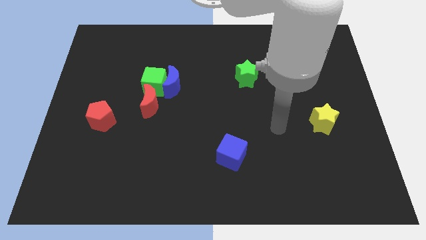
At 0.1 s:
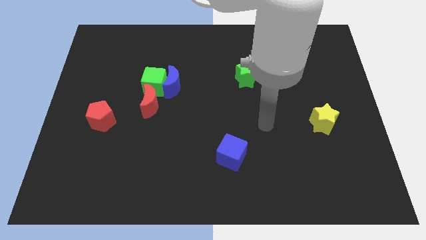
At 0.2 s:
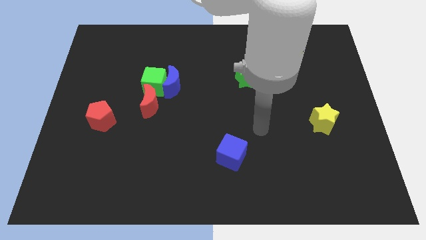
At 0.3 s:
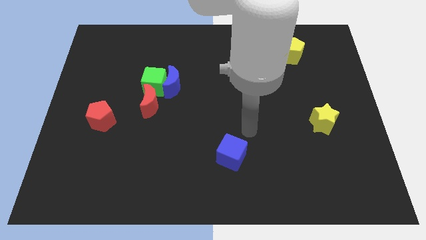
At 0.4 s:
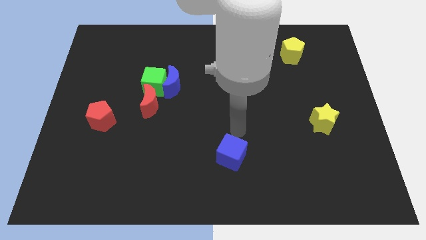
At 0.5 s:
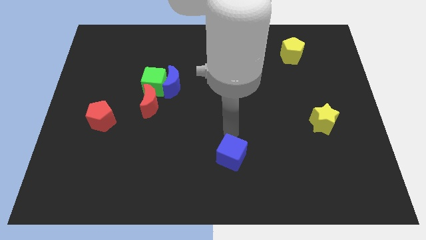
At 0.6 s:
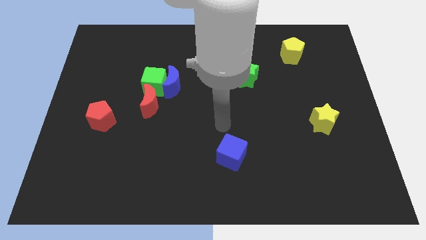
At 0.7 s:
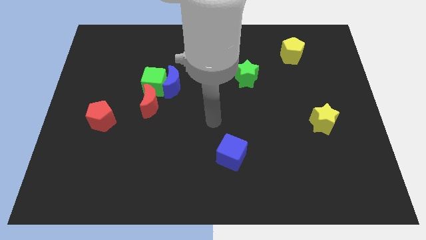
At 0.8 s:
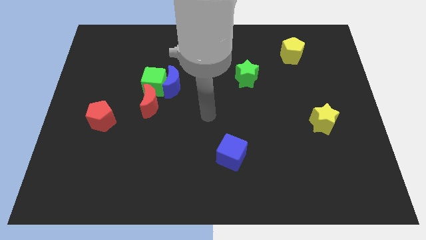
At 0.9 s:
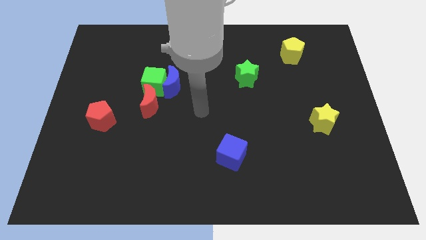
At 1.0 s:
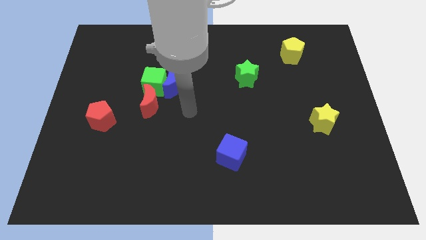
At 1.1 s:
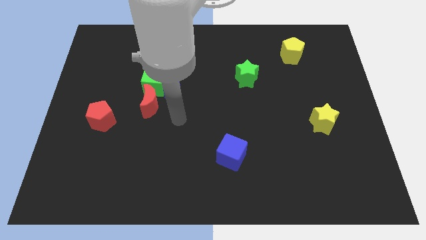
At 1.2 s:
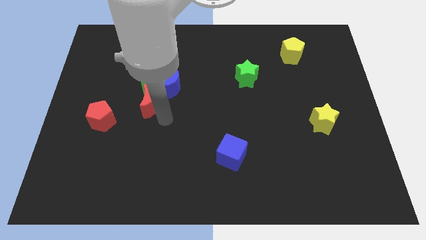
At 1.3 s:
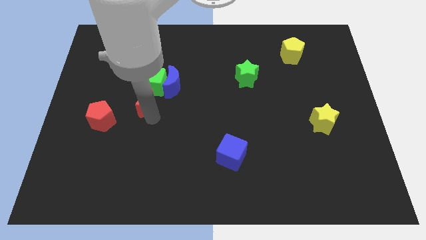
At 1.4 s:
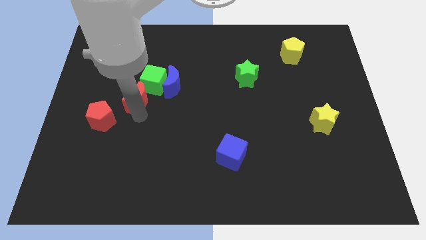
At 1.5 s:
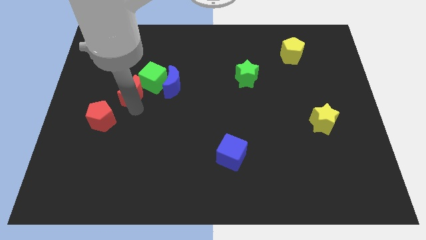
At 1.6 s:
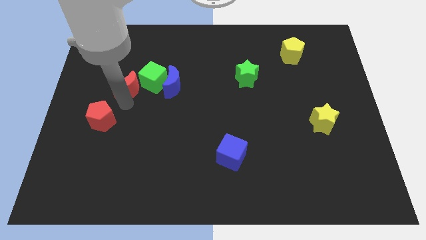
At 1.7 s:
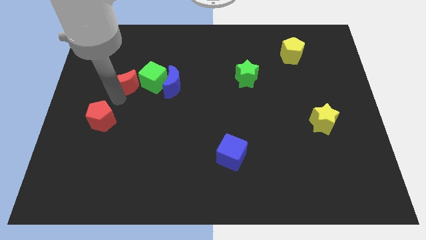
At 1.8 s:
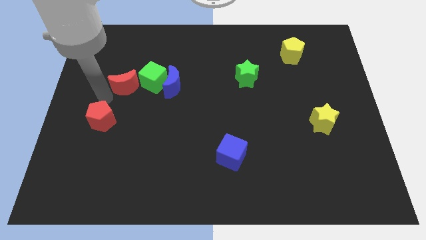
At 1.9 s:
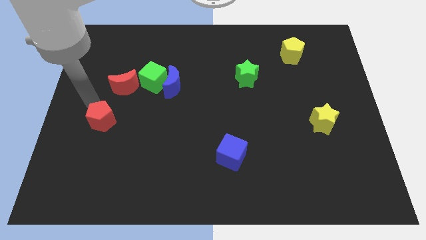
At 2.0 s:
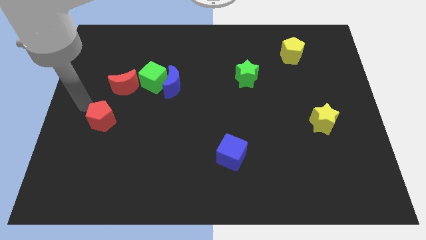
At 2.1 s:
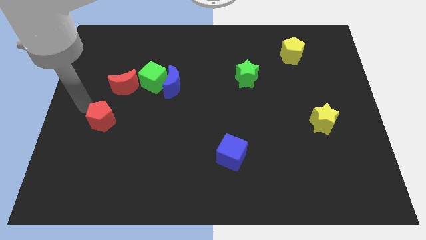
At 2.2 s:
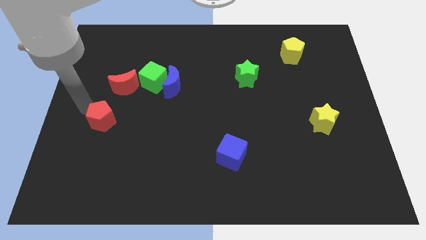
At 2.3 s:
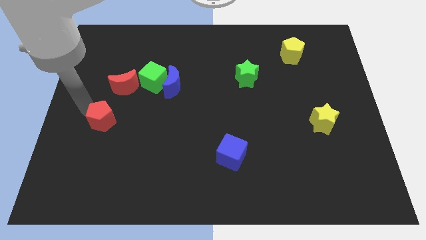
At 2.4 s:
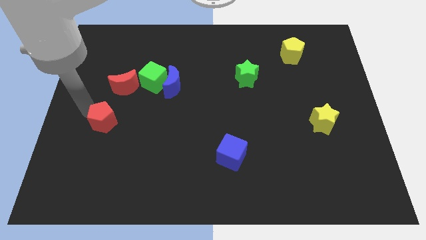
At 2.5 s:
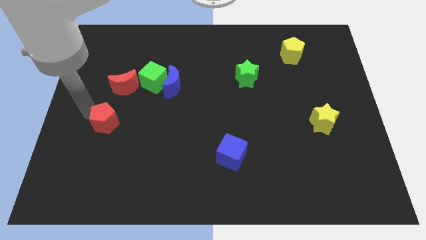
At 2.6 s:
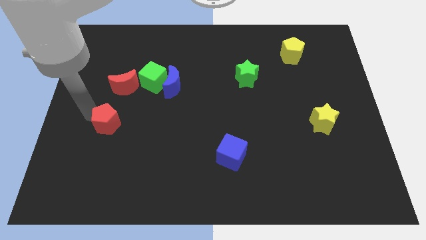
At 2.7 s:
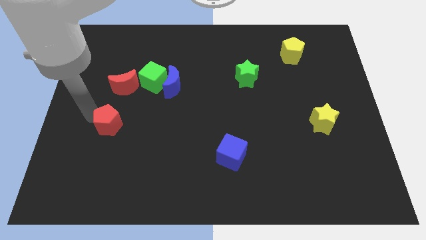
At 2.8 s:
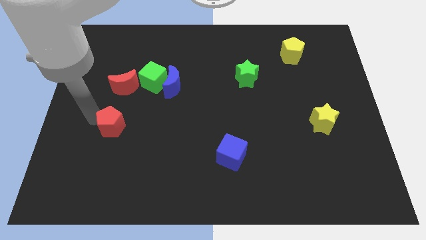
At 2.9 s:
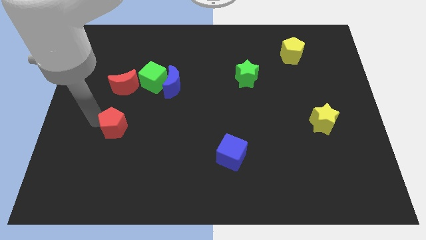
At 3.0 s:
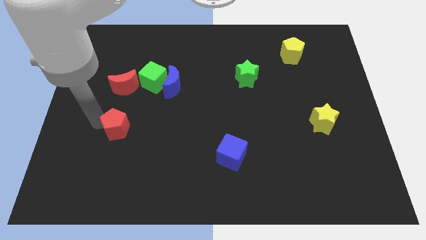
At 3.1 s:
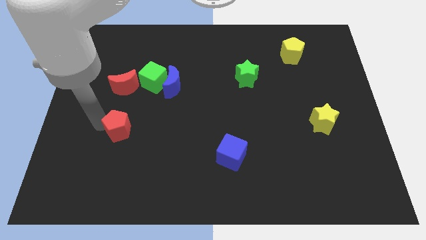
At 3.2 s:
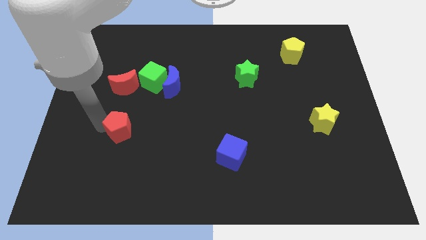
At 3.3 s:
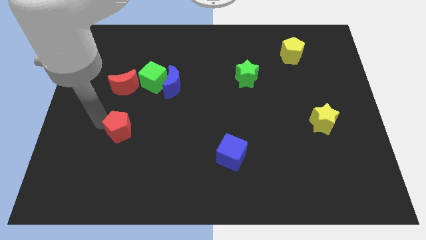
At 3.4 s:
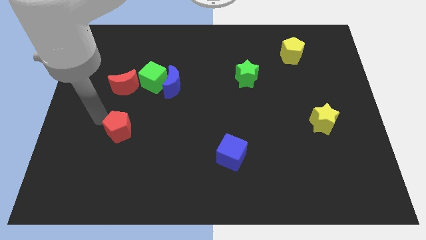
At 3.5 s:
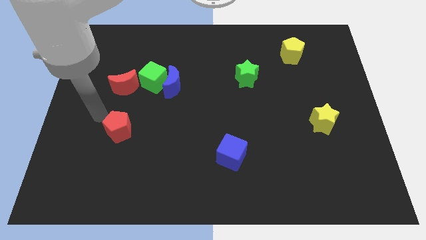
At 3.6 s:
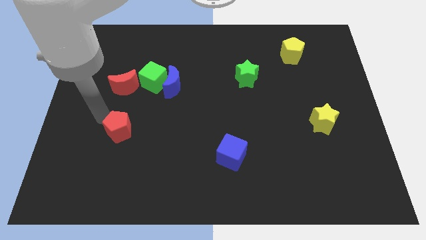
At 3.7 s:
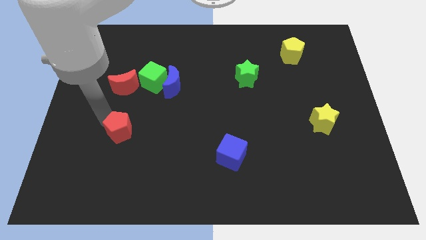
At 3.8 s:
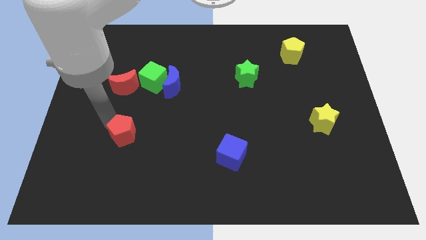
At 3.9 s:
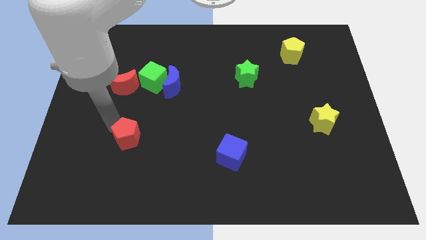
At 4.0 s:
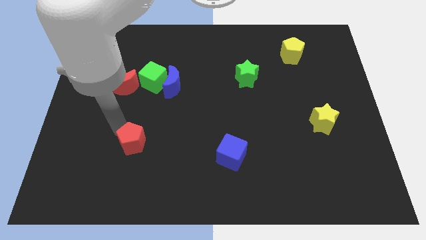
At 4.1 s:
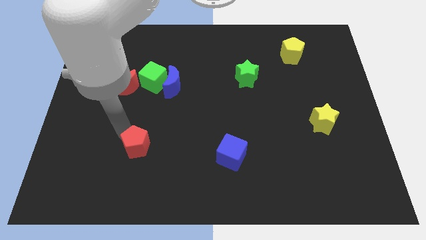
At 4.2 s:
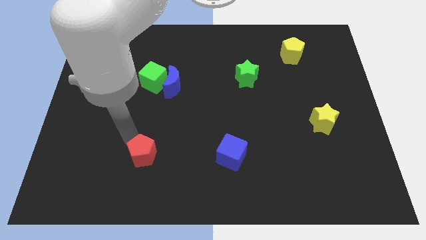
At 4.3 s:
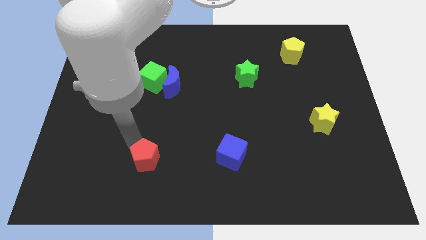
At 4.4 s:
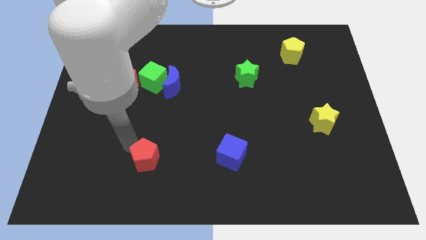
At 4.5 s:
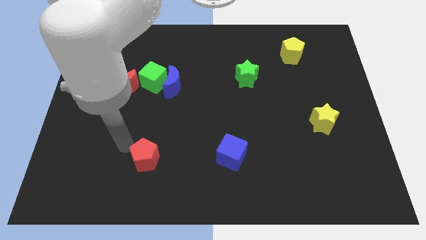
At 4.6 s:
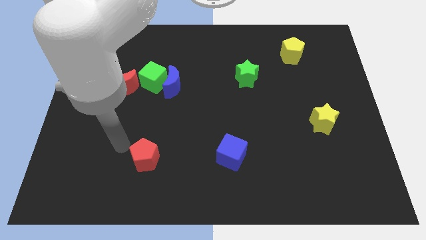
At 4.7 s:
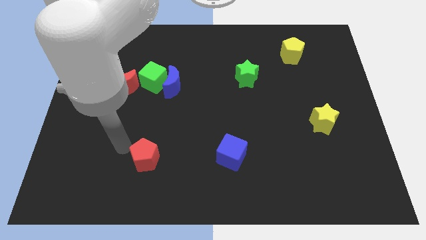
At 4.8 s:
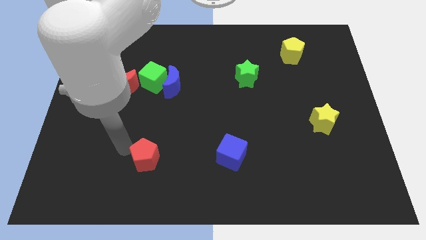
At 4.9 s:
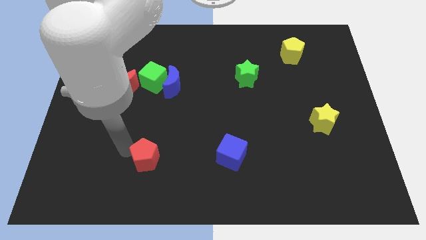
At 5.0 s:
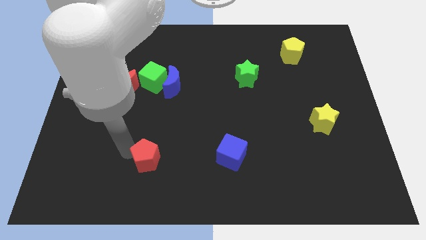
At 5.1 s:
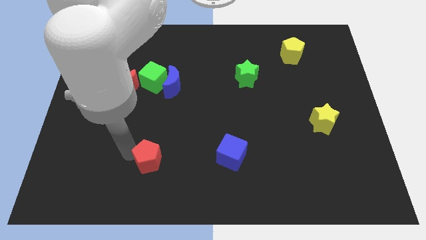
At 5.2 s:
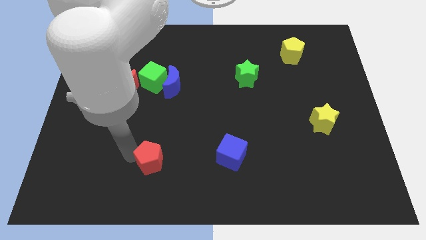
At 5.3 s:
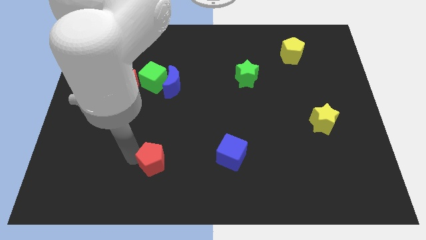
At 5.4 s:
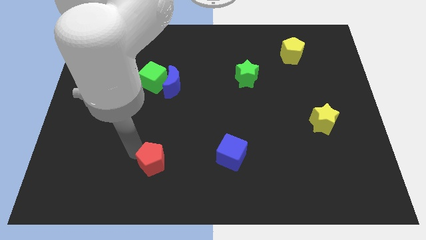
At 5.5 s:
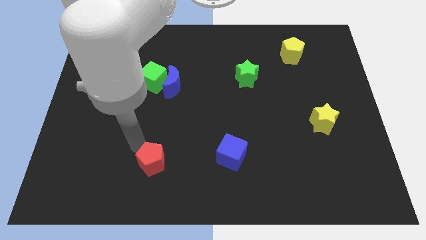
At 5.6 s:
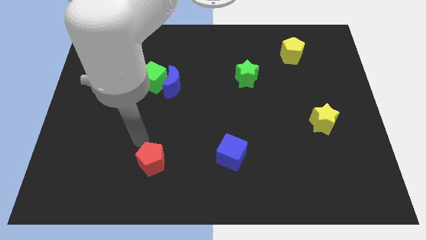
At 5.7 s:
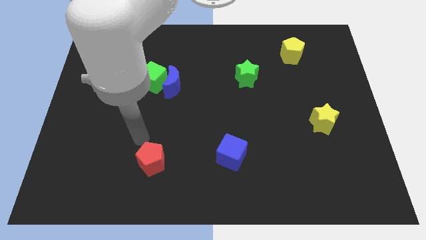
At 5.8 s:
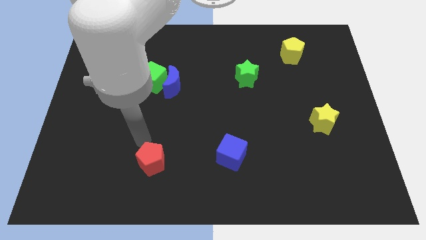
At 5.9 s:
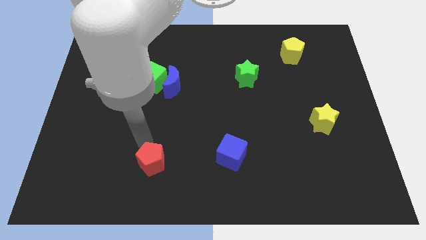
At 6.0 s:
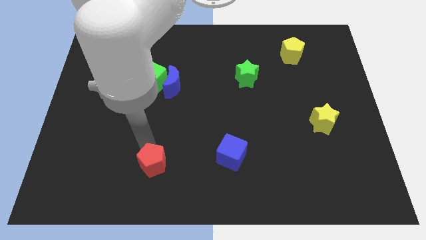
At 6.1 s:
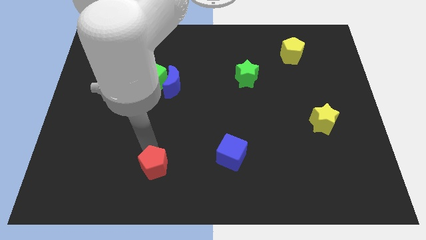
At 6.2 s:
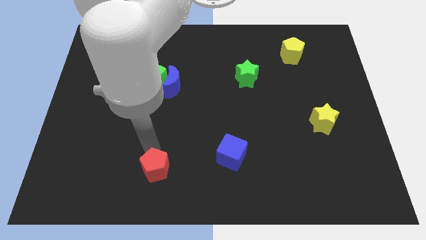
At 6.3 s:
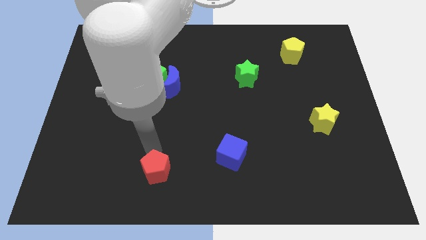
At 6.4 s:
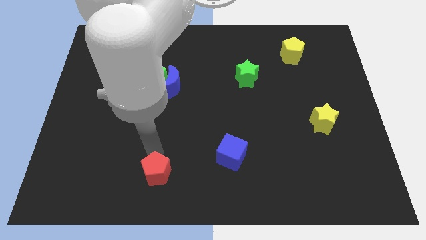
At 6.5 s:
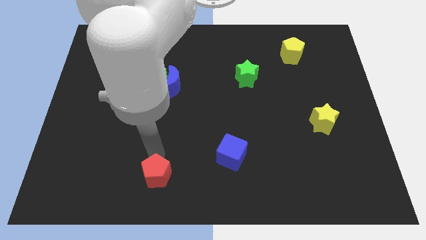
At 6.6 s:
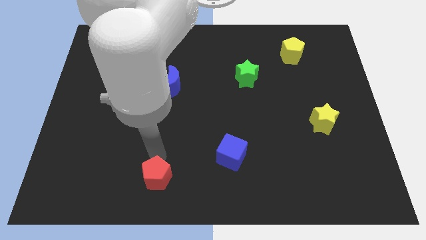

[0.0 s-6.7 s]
move the red pentagon to the bottom side
